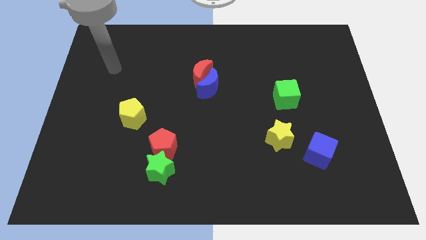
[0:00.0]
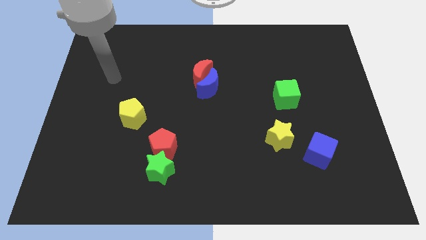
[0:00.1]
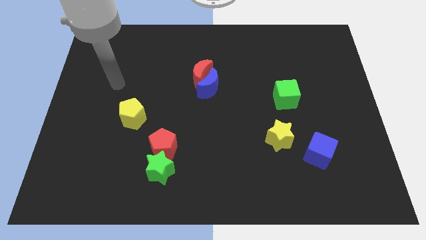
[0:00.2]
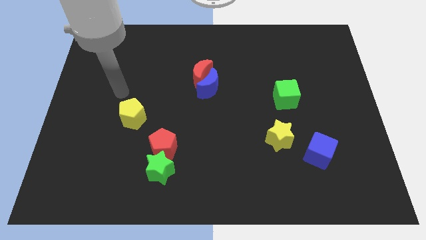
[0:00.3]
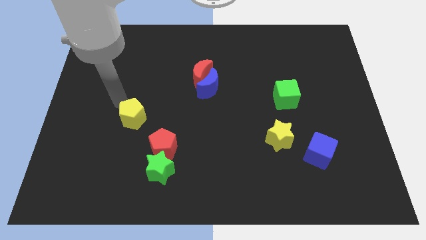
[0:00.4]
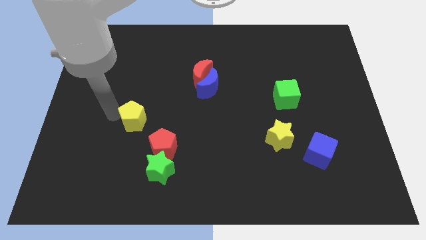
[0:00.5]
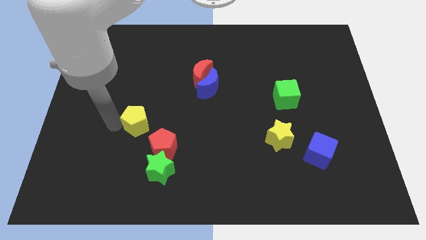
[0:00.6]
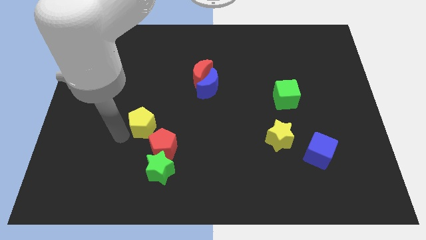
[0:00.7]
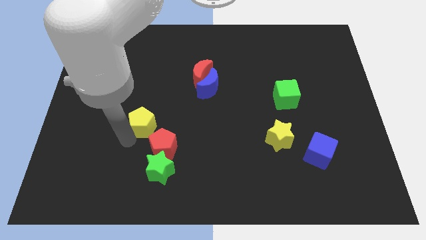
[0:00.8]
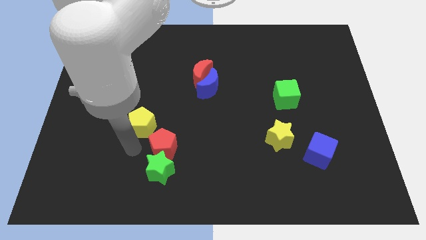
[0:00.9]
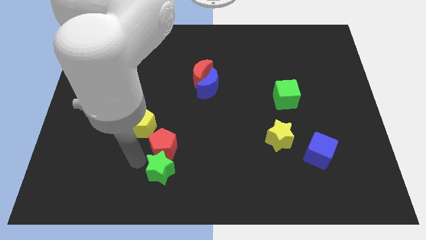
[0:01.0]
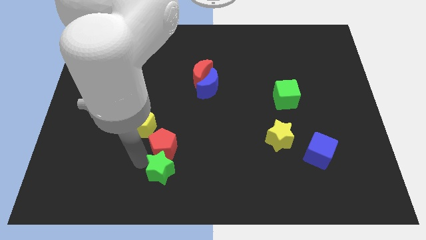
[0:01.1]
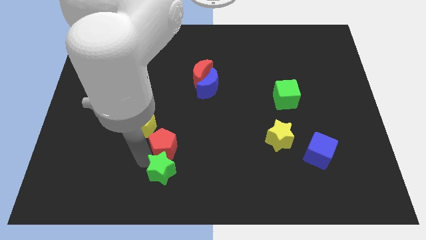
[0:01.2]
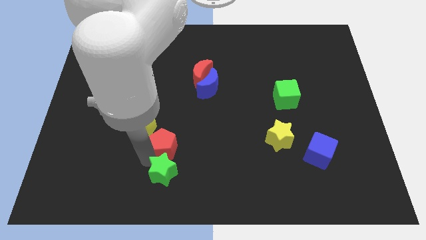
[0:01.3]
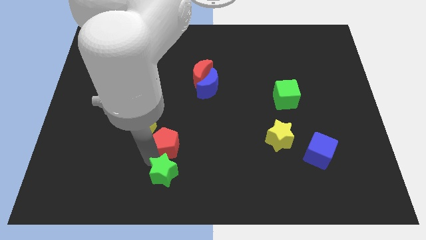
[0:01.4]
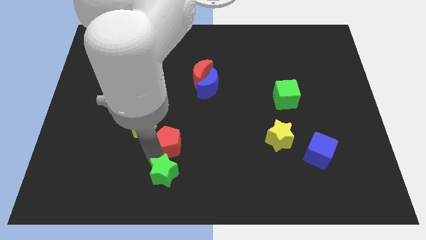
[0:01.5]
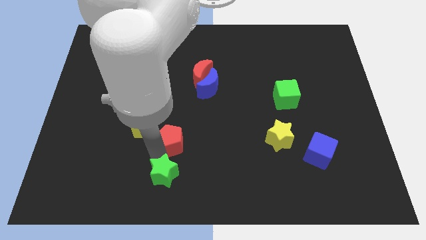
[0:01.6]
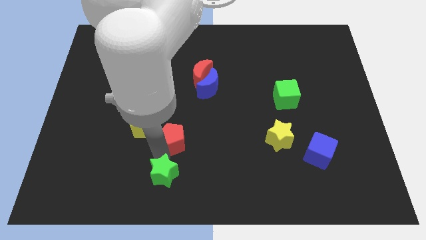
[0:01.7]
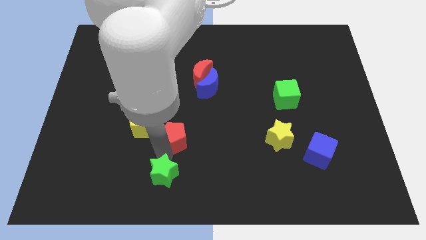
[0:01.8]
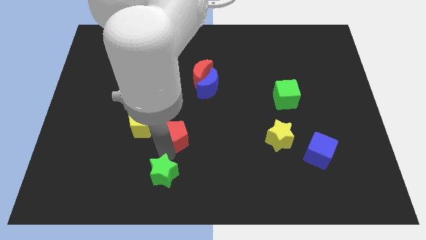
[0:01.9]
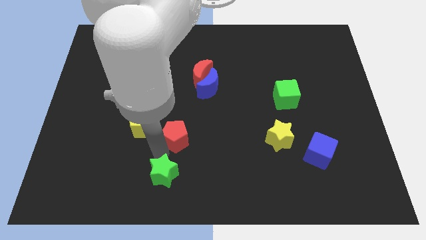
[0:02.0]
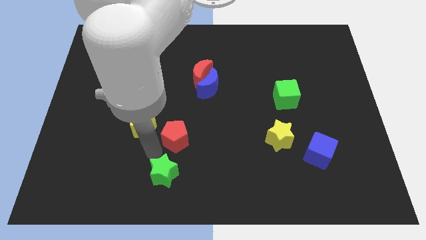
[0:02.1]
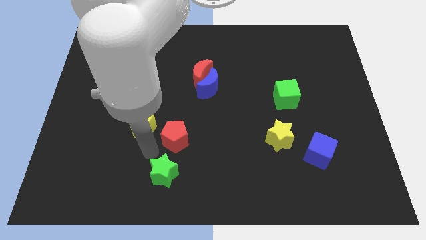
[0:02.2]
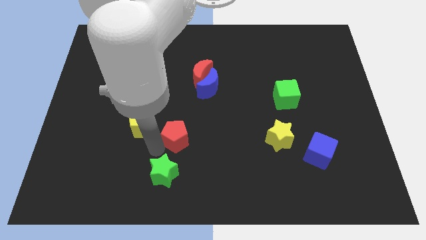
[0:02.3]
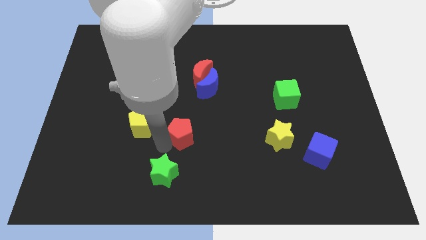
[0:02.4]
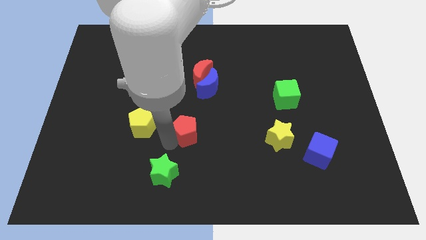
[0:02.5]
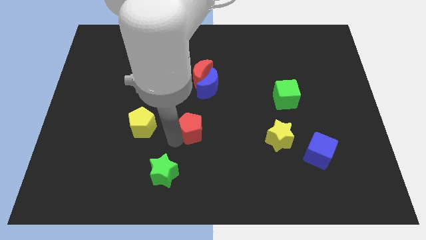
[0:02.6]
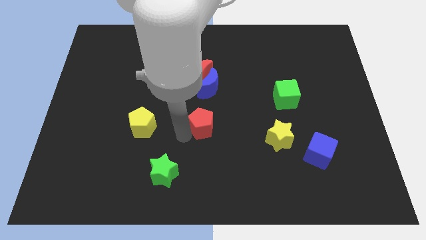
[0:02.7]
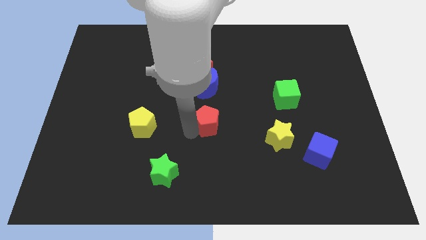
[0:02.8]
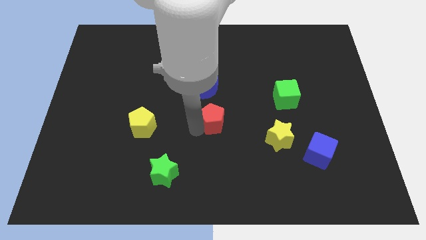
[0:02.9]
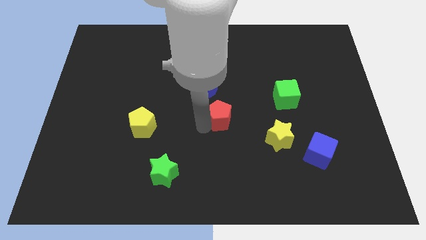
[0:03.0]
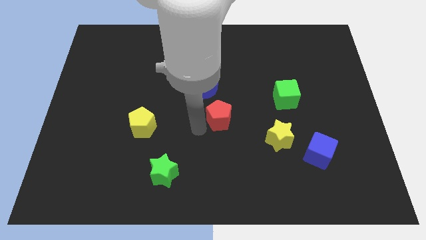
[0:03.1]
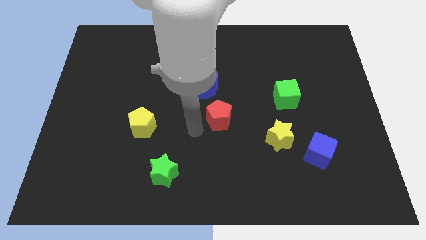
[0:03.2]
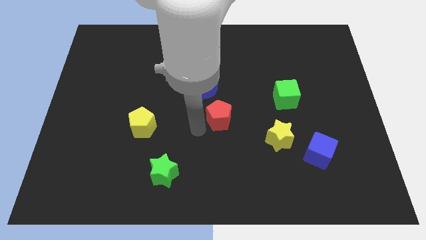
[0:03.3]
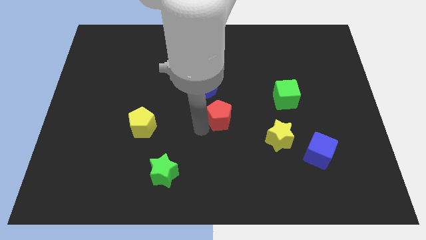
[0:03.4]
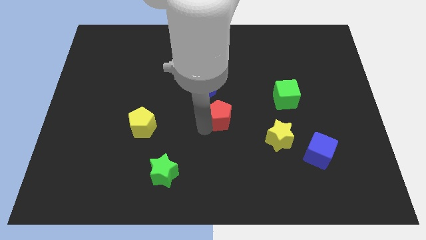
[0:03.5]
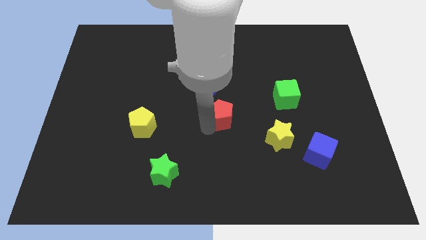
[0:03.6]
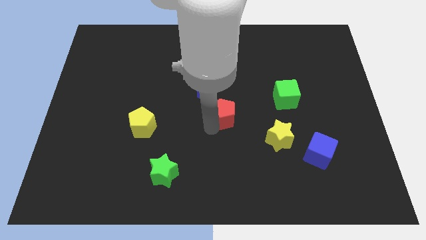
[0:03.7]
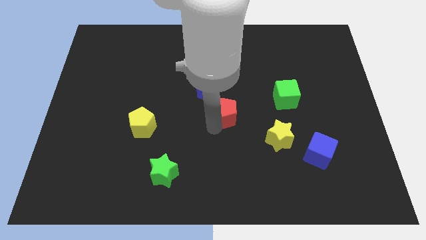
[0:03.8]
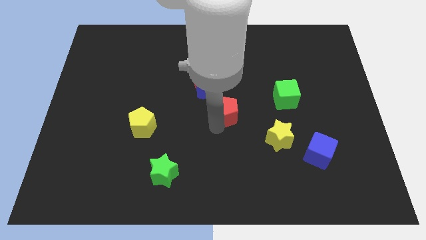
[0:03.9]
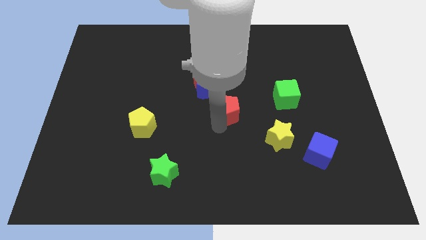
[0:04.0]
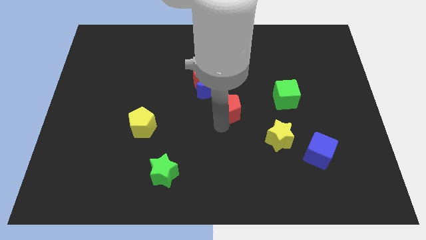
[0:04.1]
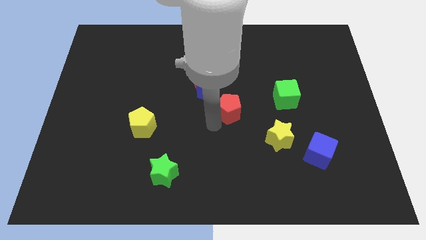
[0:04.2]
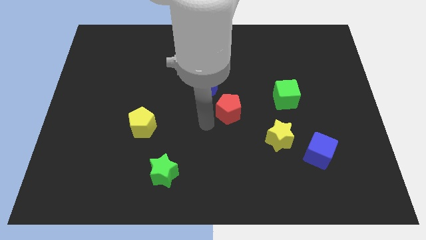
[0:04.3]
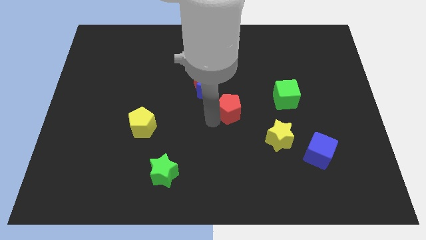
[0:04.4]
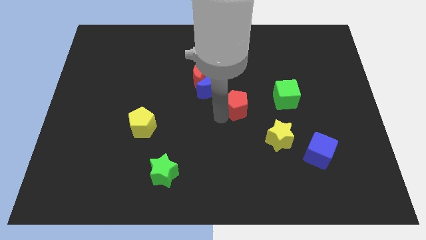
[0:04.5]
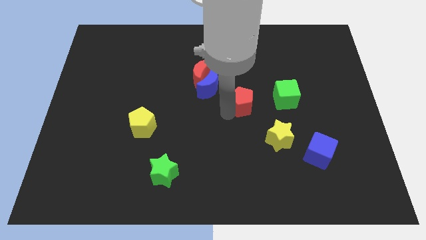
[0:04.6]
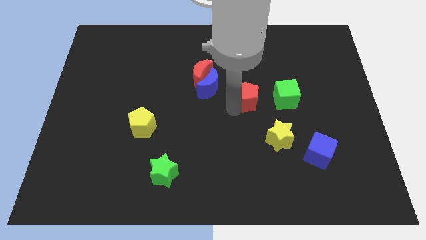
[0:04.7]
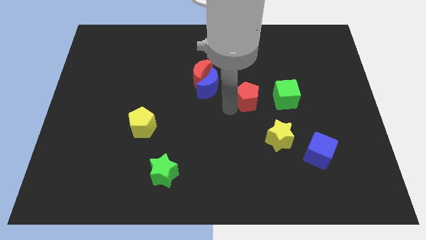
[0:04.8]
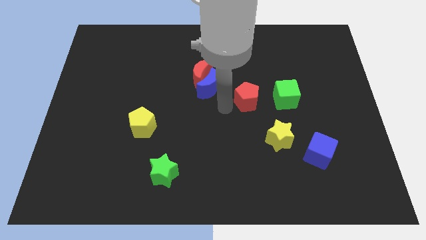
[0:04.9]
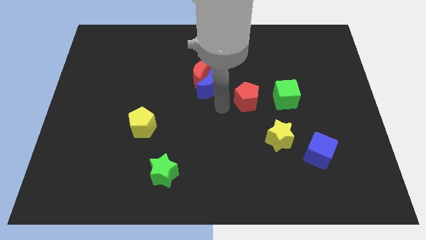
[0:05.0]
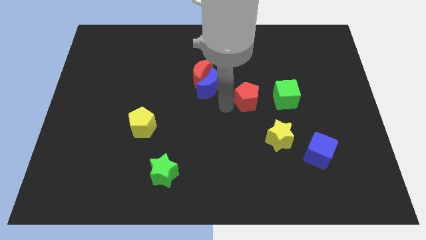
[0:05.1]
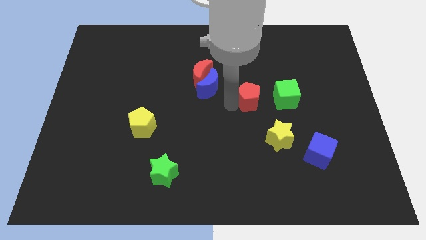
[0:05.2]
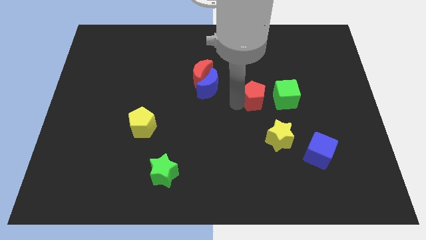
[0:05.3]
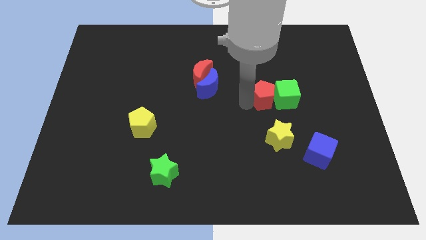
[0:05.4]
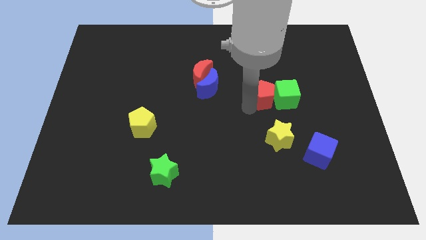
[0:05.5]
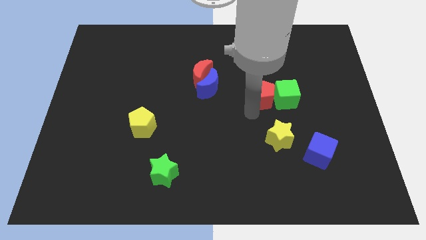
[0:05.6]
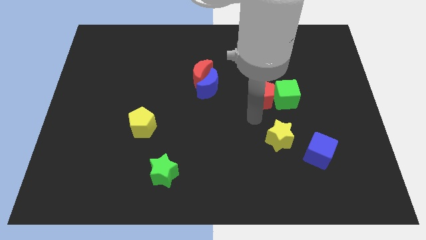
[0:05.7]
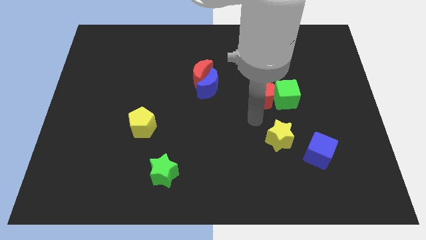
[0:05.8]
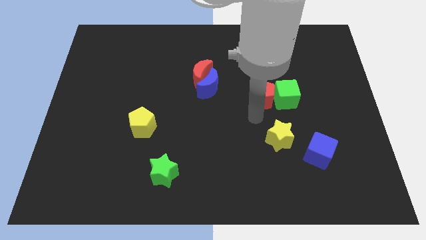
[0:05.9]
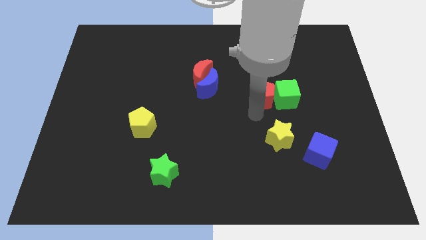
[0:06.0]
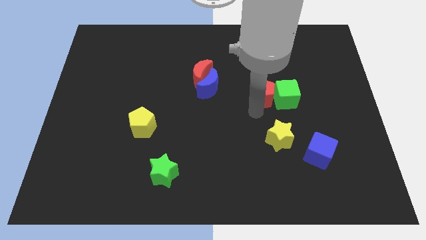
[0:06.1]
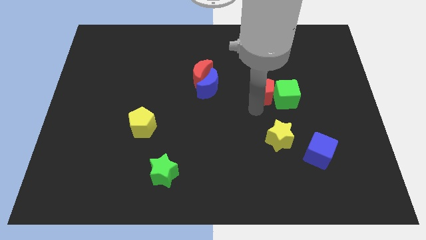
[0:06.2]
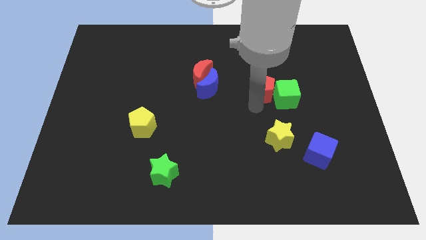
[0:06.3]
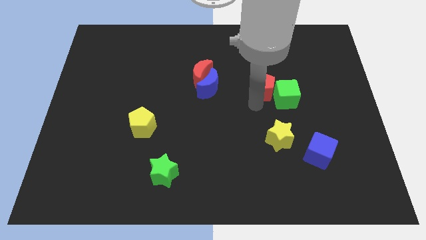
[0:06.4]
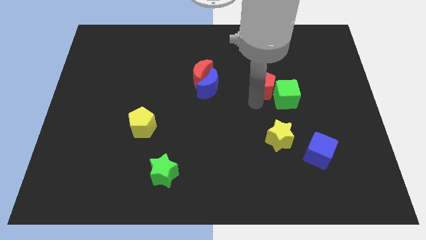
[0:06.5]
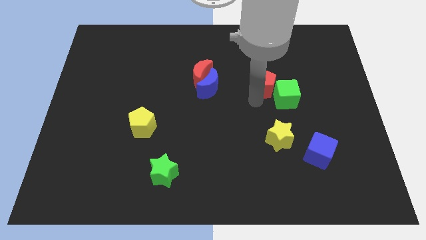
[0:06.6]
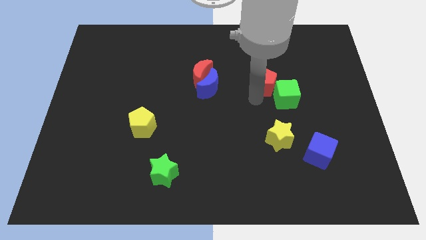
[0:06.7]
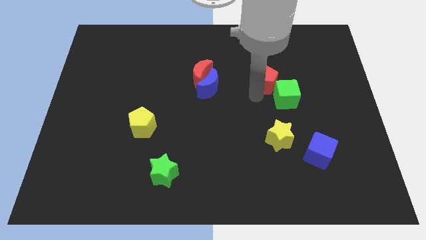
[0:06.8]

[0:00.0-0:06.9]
put the red pentagon to the top side of the green cube
